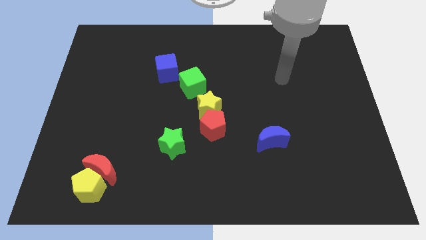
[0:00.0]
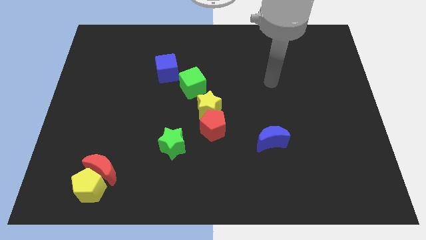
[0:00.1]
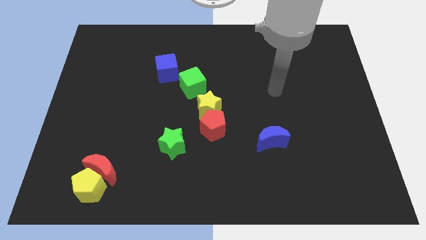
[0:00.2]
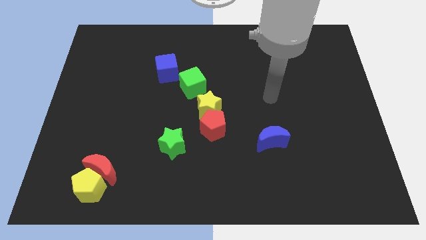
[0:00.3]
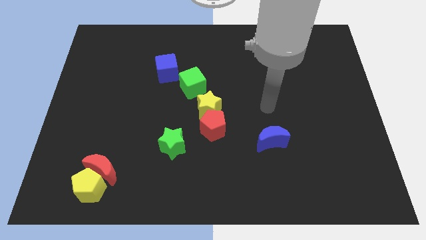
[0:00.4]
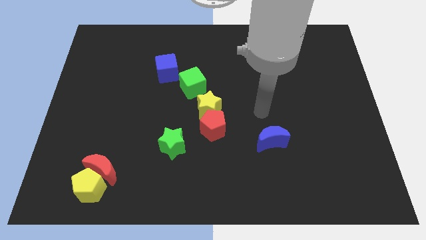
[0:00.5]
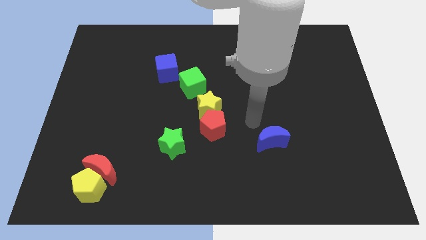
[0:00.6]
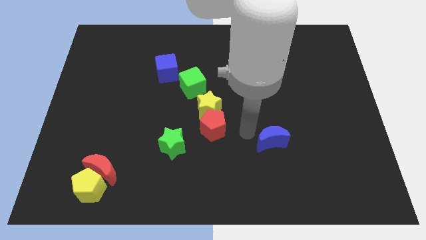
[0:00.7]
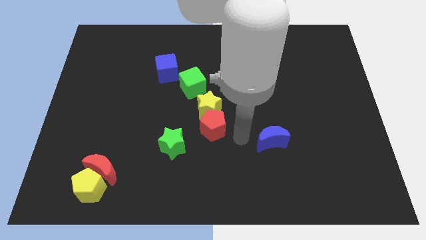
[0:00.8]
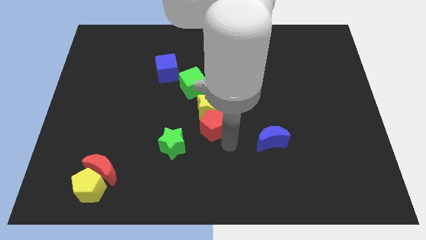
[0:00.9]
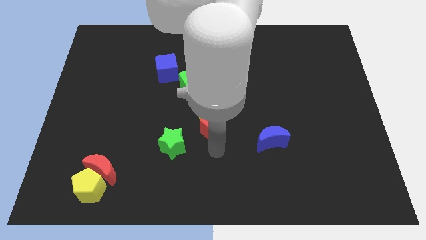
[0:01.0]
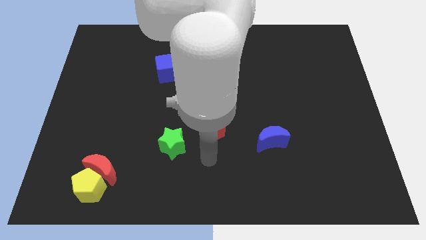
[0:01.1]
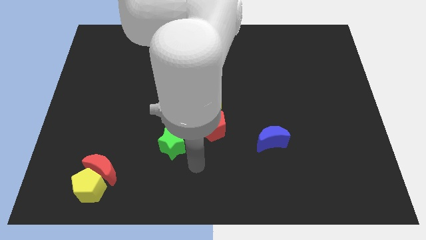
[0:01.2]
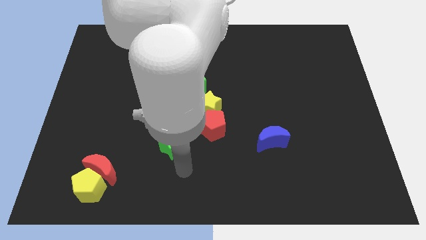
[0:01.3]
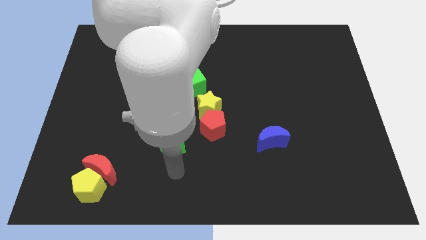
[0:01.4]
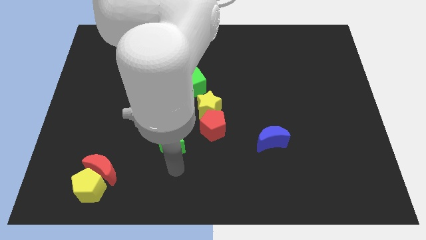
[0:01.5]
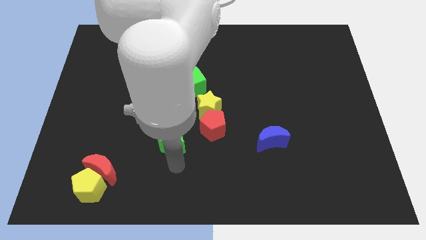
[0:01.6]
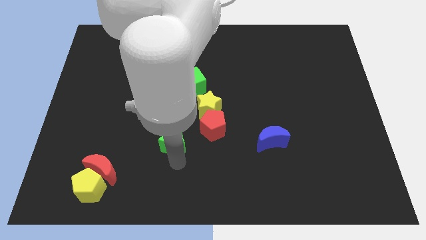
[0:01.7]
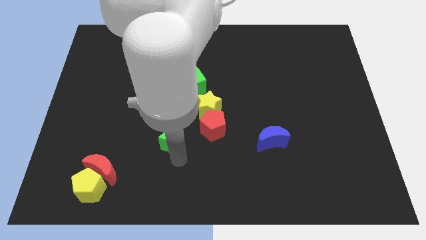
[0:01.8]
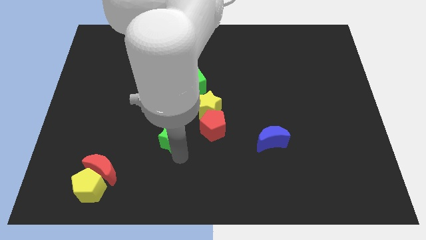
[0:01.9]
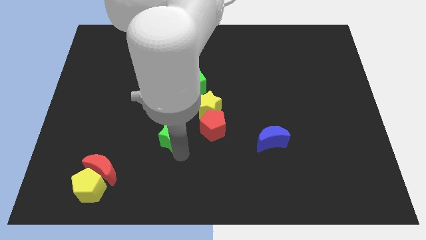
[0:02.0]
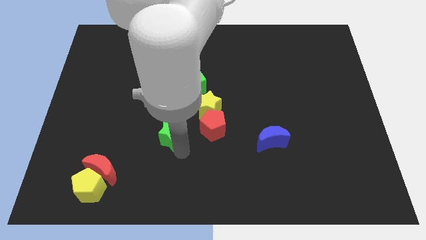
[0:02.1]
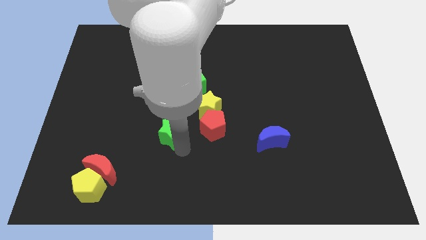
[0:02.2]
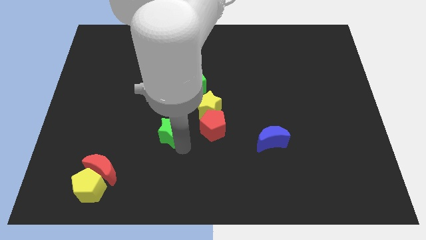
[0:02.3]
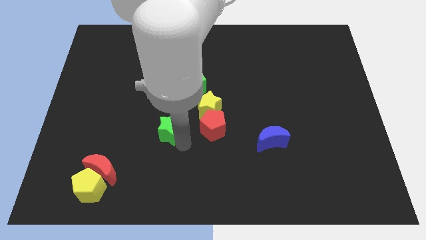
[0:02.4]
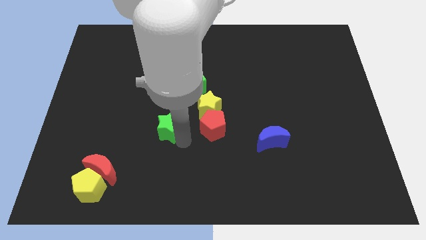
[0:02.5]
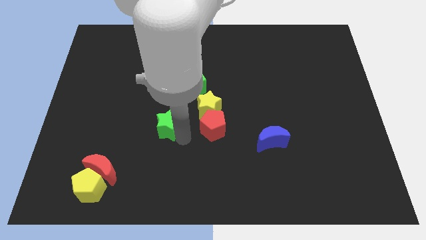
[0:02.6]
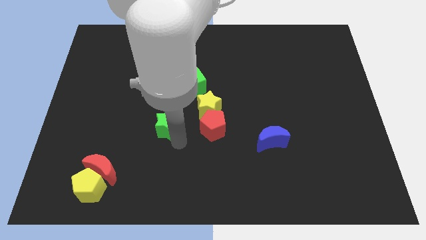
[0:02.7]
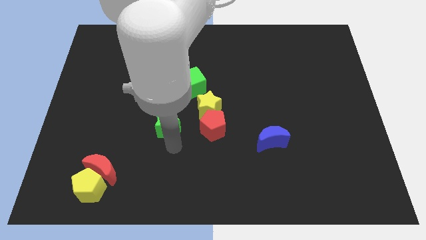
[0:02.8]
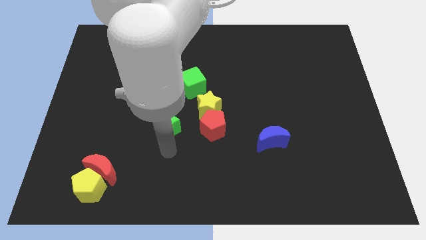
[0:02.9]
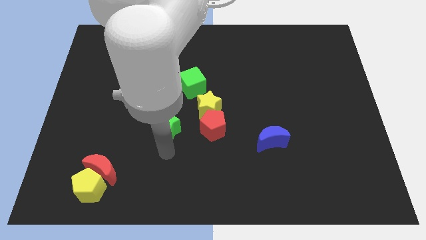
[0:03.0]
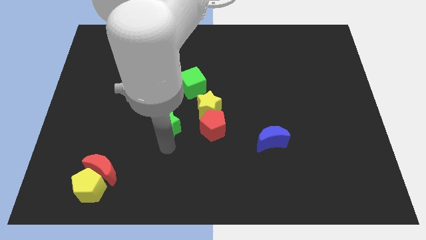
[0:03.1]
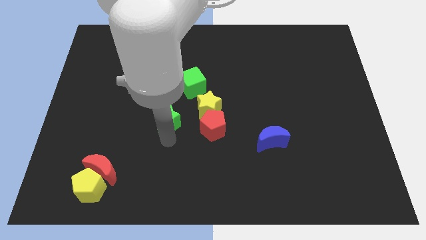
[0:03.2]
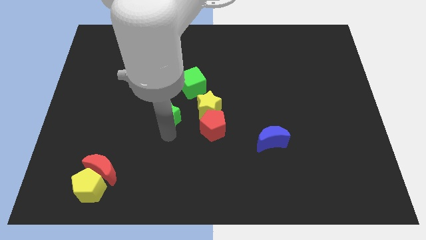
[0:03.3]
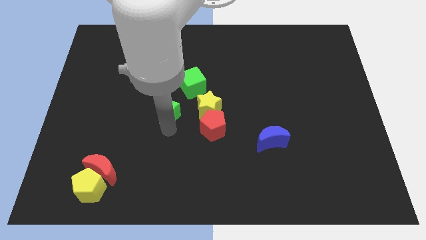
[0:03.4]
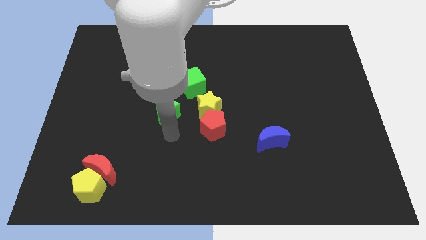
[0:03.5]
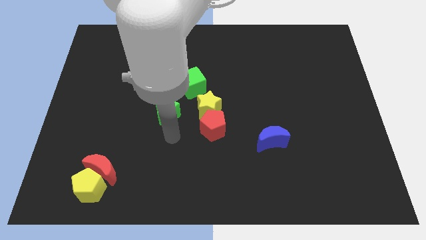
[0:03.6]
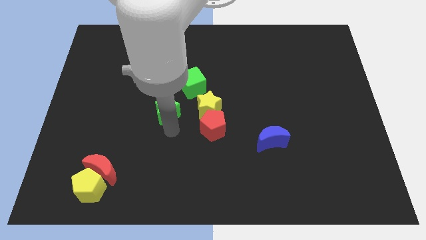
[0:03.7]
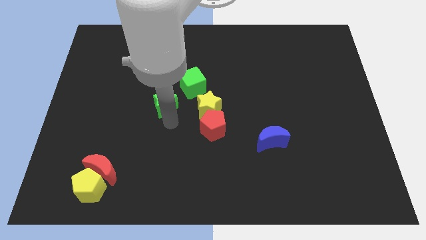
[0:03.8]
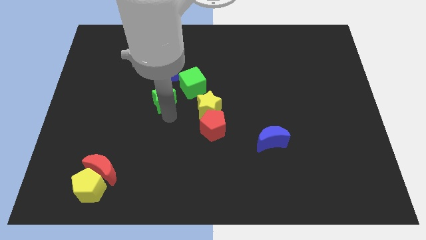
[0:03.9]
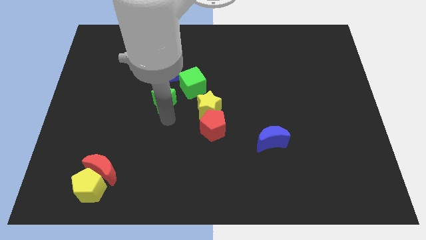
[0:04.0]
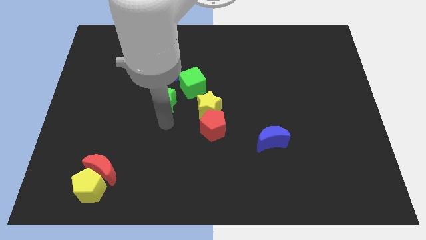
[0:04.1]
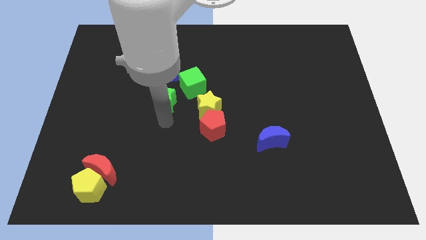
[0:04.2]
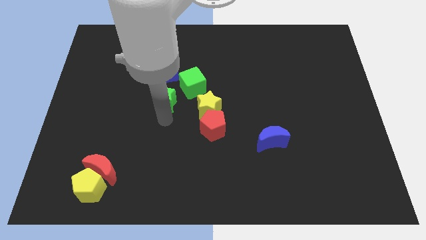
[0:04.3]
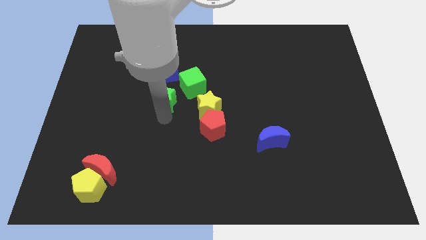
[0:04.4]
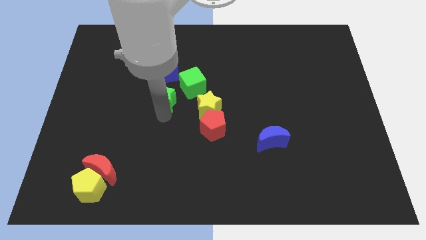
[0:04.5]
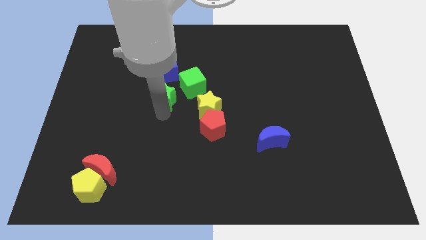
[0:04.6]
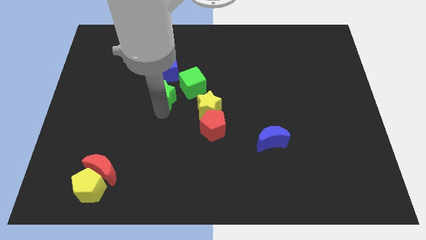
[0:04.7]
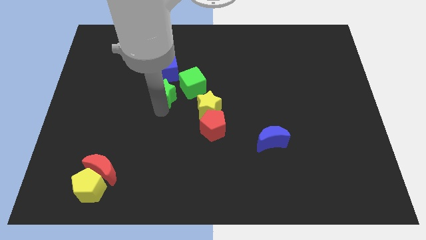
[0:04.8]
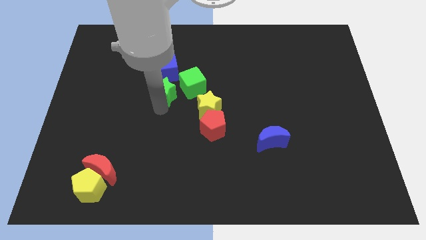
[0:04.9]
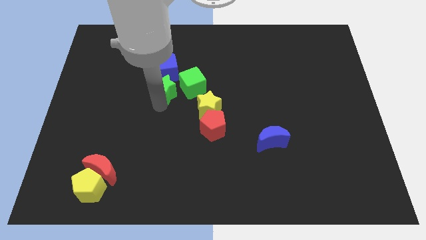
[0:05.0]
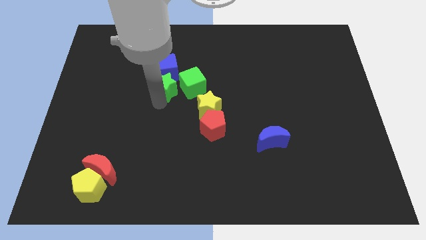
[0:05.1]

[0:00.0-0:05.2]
push the green star close to the blue cube

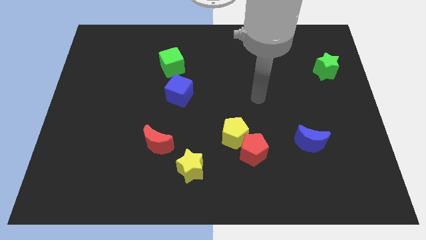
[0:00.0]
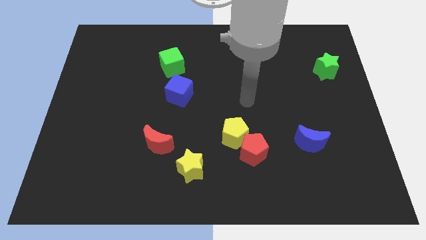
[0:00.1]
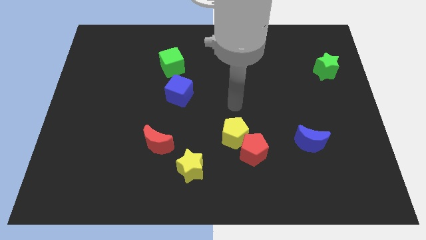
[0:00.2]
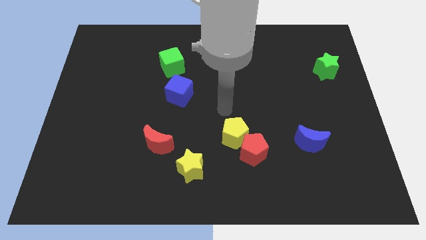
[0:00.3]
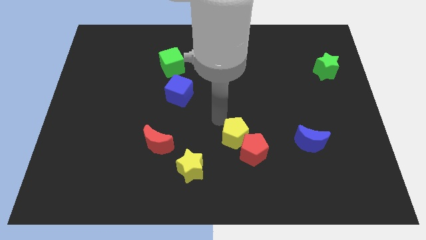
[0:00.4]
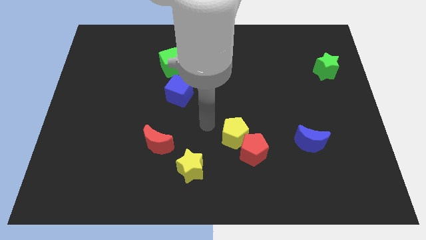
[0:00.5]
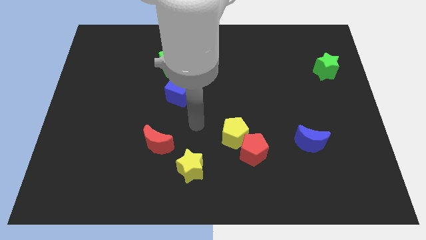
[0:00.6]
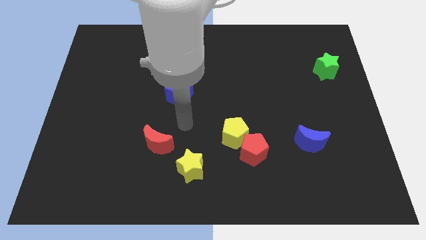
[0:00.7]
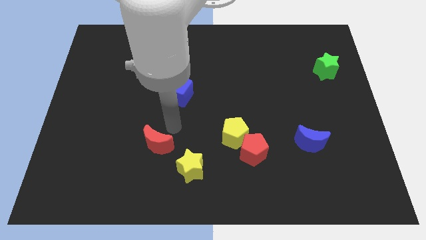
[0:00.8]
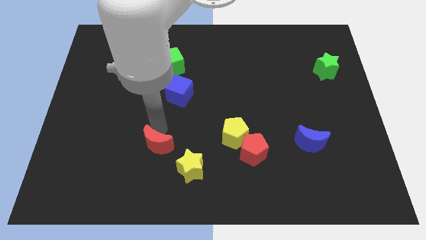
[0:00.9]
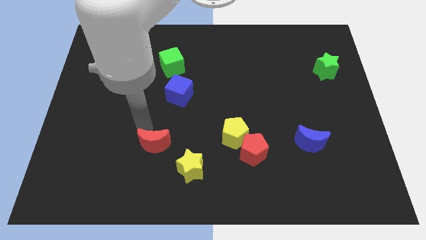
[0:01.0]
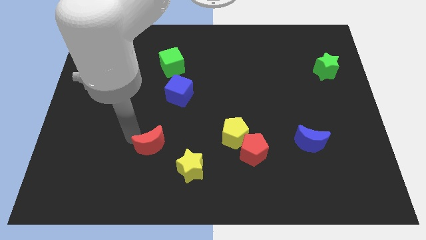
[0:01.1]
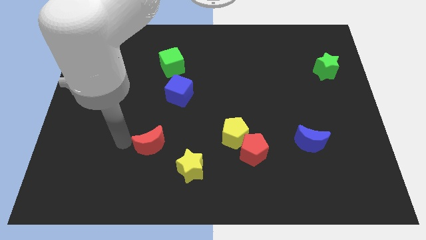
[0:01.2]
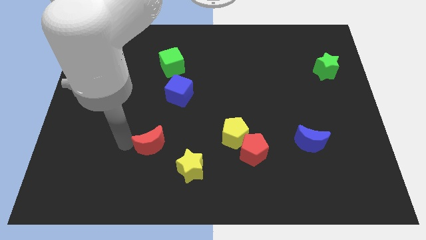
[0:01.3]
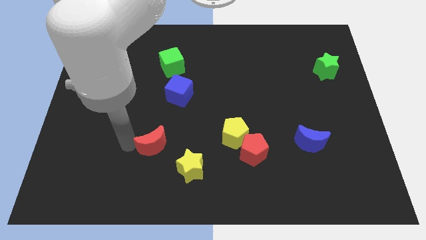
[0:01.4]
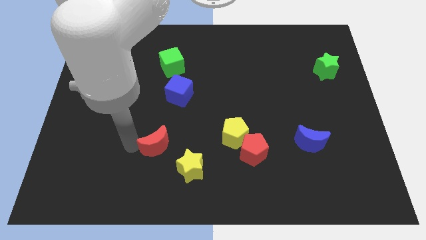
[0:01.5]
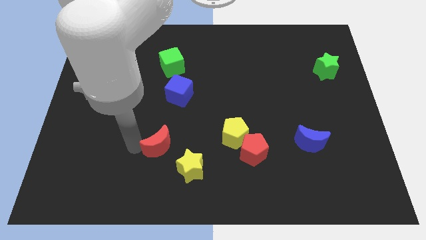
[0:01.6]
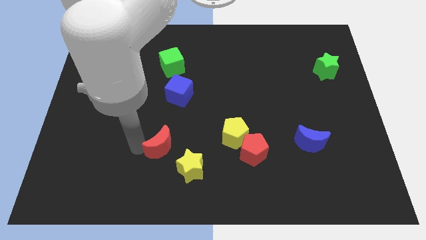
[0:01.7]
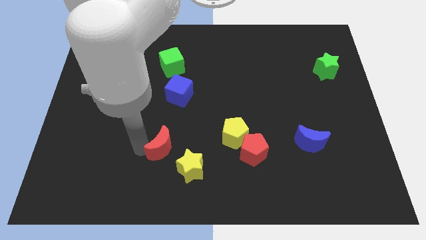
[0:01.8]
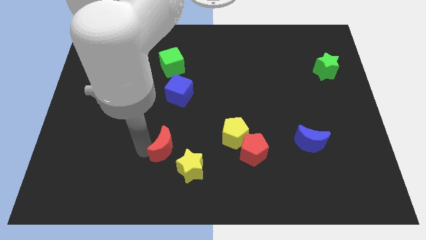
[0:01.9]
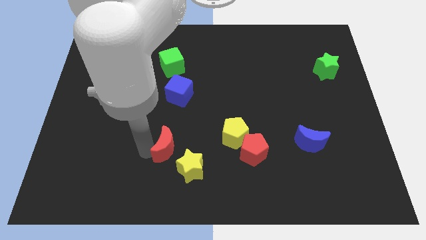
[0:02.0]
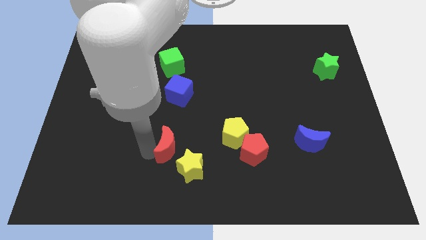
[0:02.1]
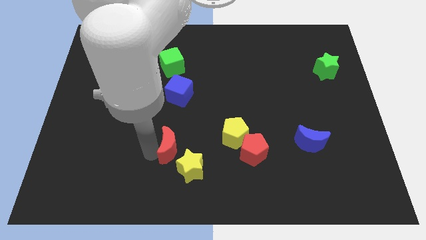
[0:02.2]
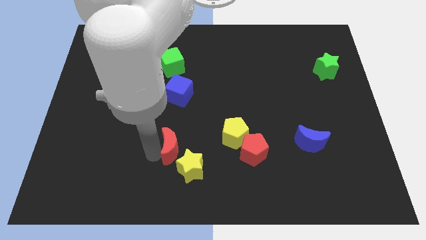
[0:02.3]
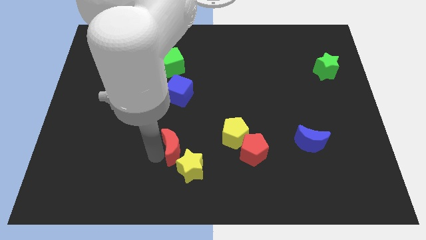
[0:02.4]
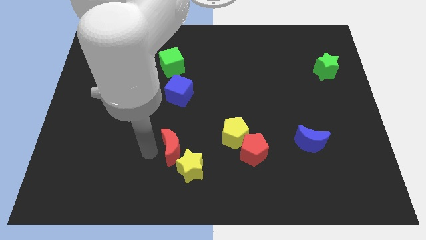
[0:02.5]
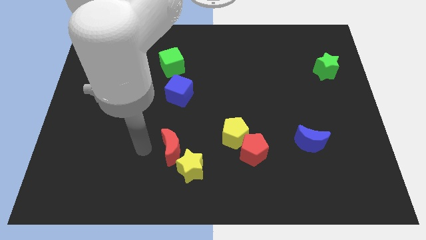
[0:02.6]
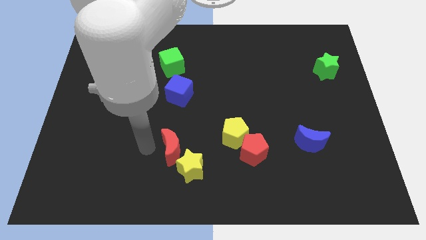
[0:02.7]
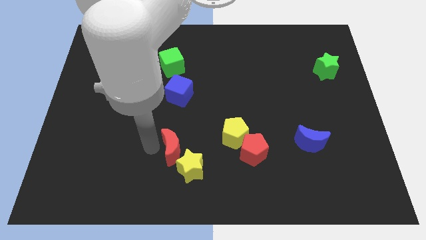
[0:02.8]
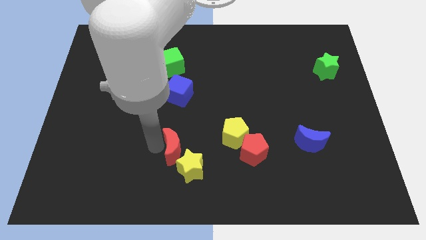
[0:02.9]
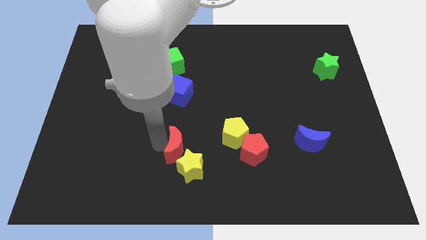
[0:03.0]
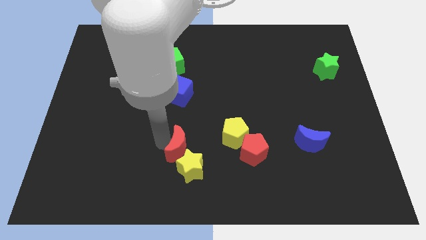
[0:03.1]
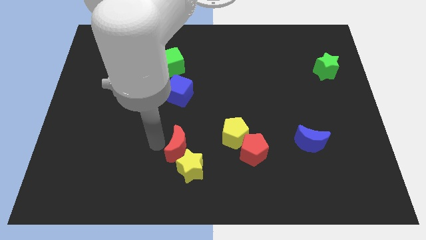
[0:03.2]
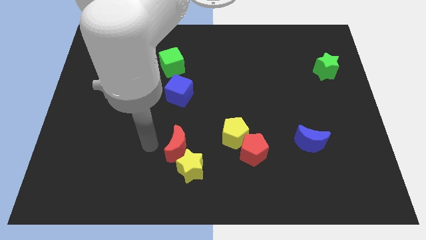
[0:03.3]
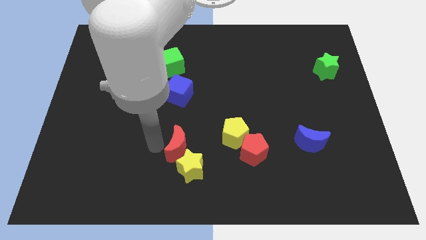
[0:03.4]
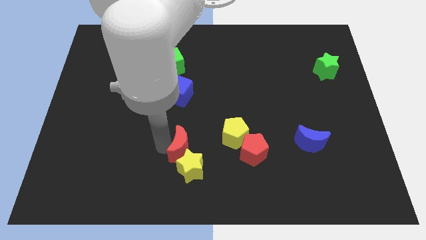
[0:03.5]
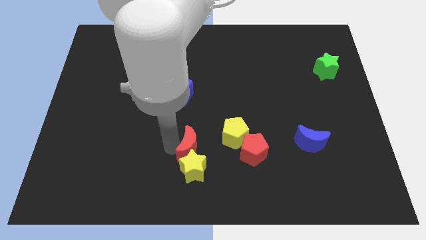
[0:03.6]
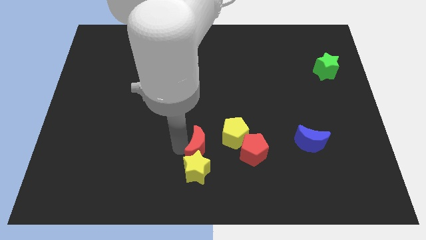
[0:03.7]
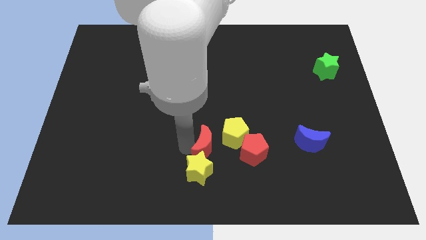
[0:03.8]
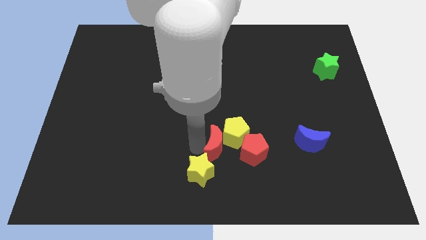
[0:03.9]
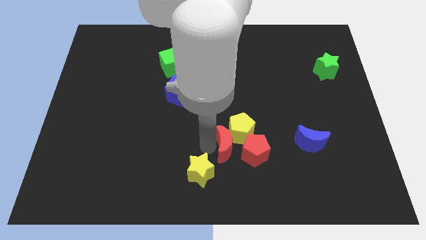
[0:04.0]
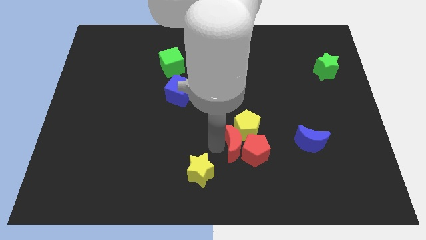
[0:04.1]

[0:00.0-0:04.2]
move the red moon close to the red pentagon
